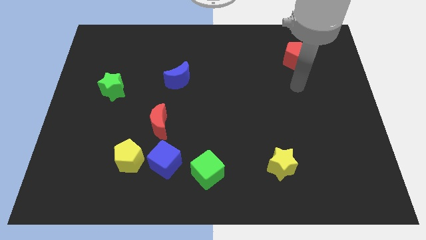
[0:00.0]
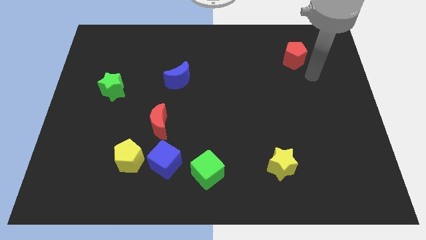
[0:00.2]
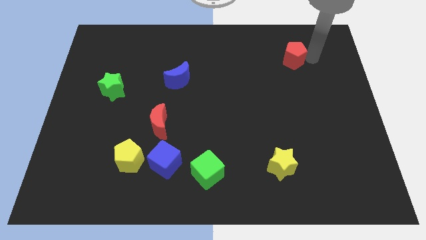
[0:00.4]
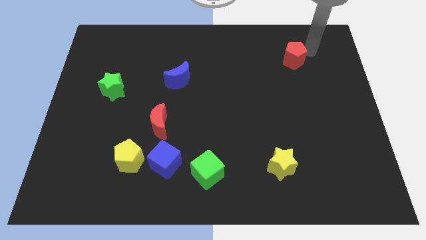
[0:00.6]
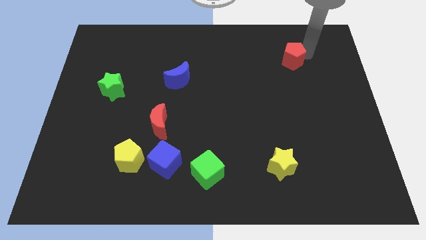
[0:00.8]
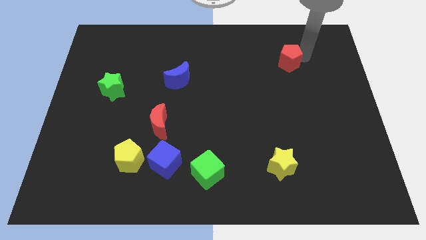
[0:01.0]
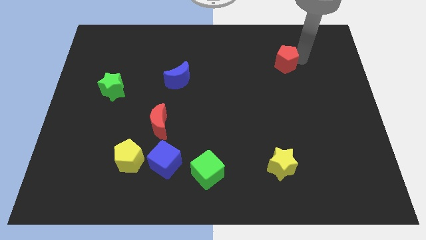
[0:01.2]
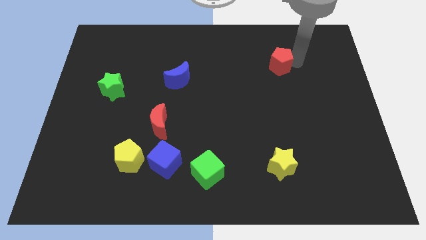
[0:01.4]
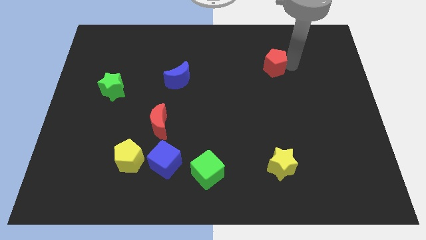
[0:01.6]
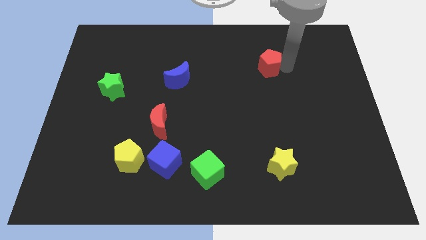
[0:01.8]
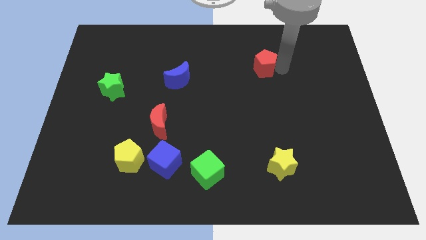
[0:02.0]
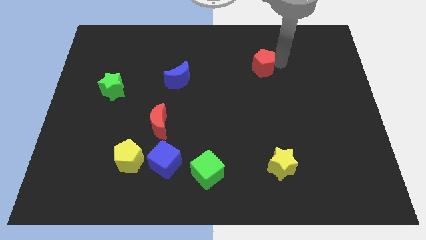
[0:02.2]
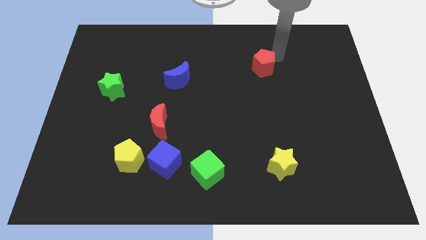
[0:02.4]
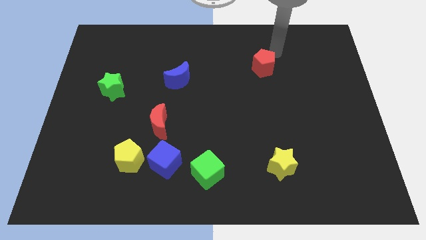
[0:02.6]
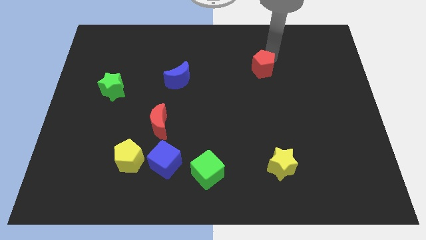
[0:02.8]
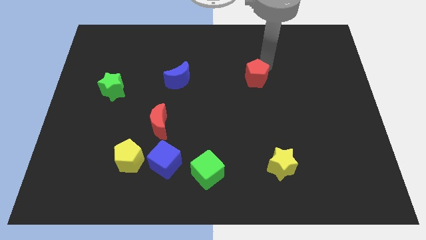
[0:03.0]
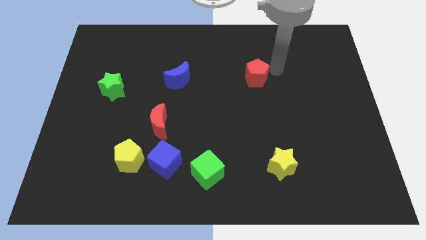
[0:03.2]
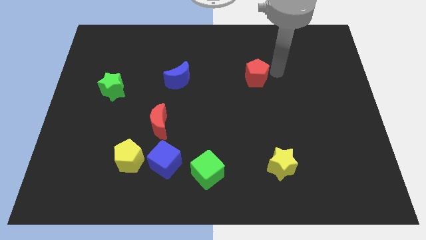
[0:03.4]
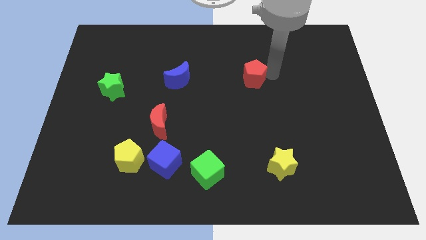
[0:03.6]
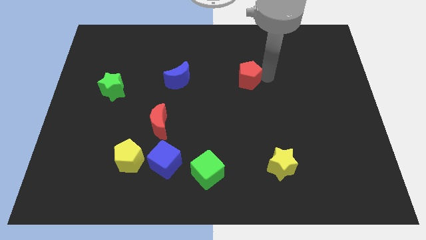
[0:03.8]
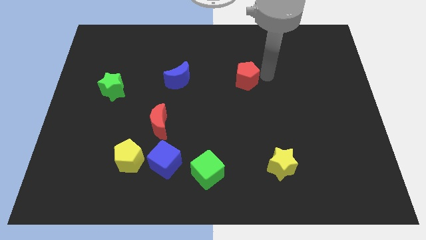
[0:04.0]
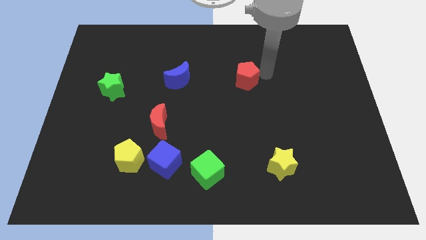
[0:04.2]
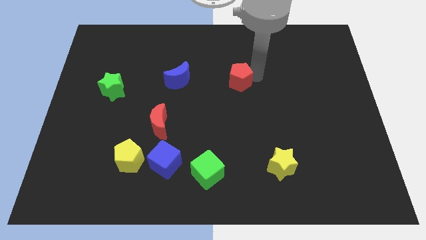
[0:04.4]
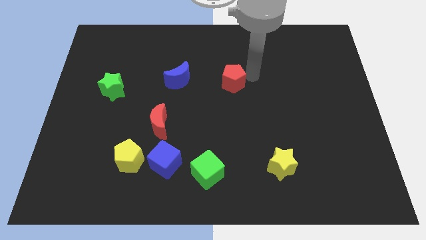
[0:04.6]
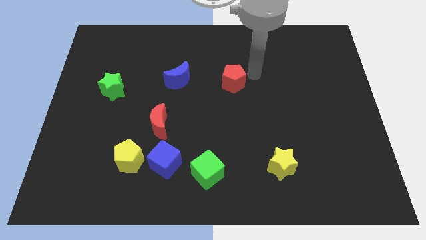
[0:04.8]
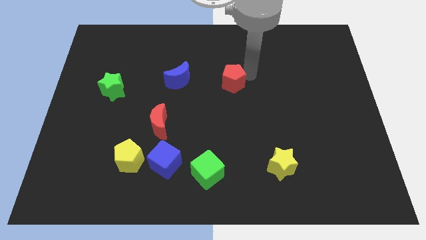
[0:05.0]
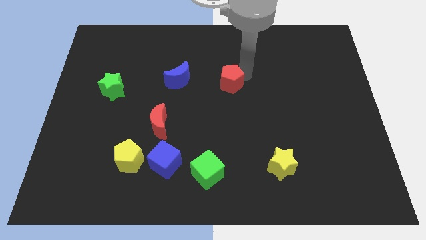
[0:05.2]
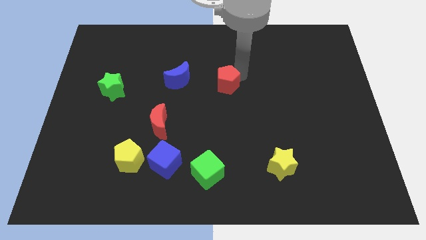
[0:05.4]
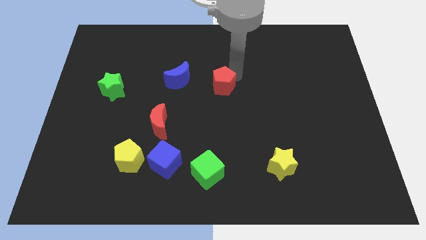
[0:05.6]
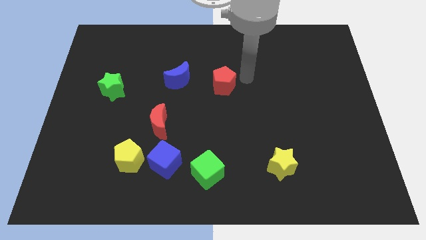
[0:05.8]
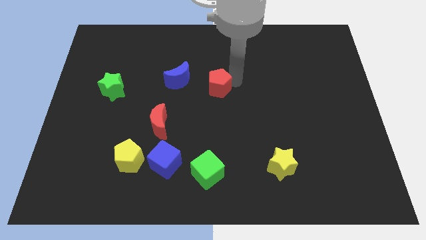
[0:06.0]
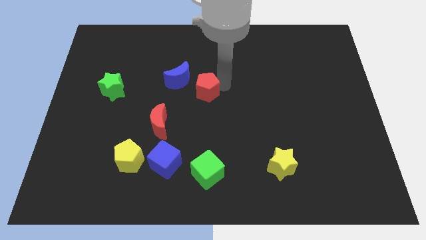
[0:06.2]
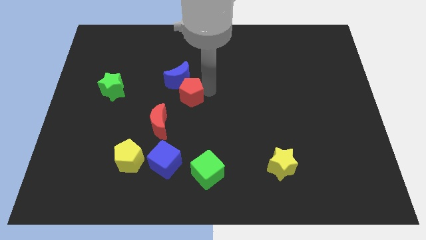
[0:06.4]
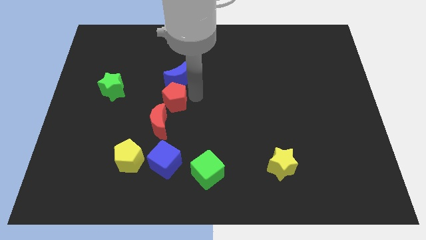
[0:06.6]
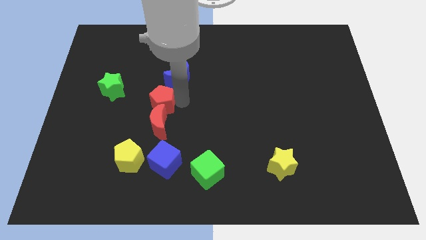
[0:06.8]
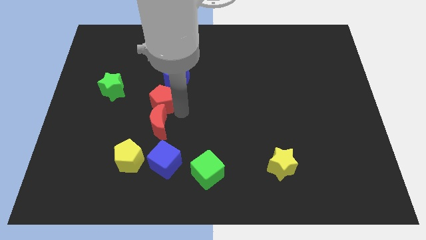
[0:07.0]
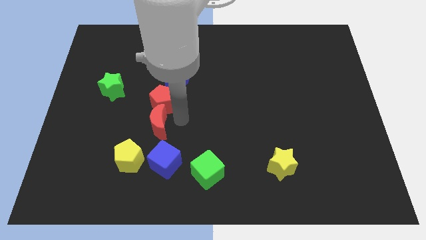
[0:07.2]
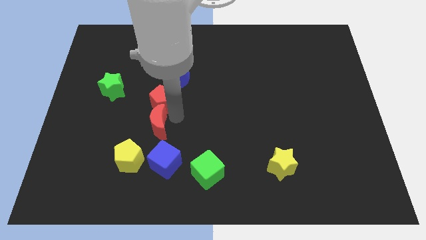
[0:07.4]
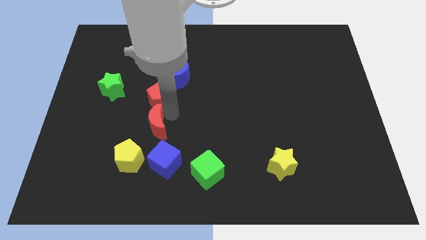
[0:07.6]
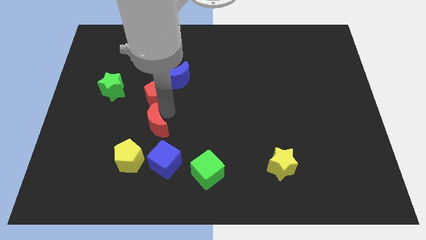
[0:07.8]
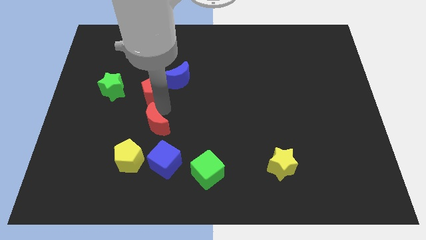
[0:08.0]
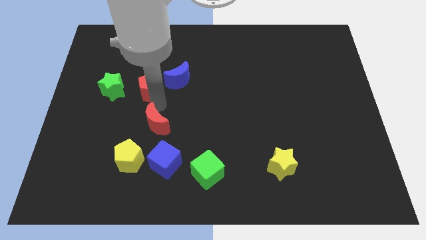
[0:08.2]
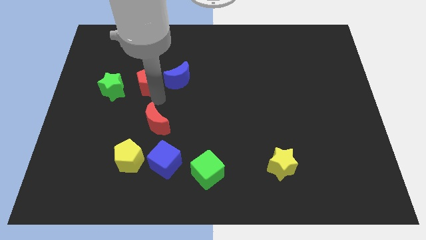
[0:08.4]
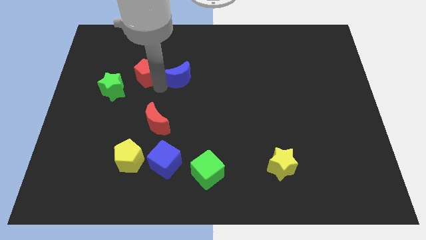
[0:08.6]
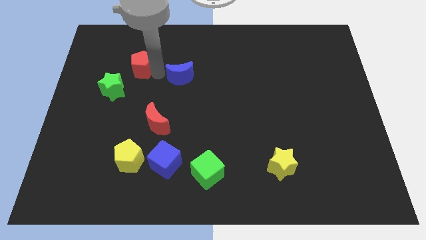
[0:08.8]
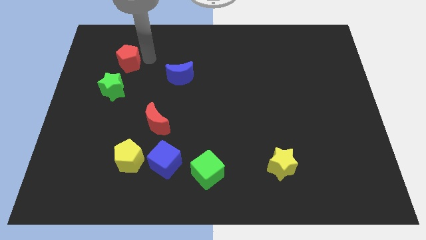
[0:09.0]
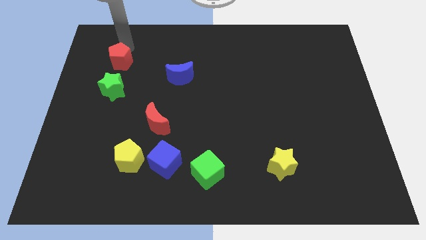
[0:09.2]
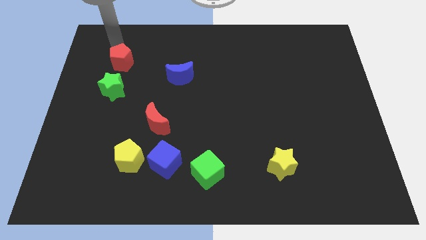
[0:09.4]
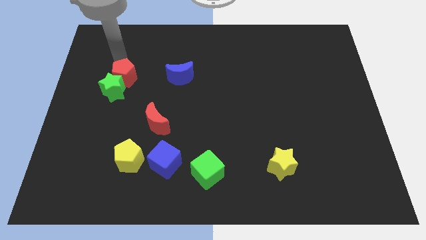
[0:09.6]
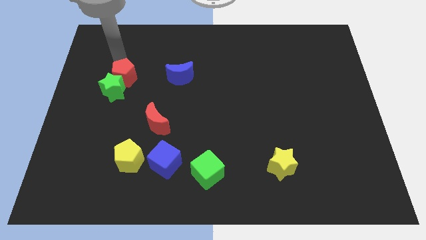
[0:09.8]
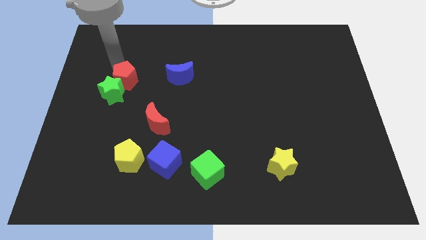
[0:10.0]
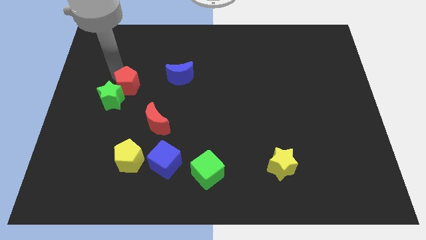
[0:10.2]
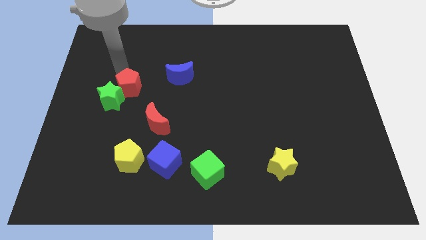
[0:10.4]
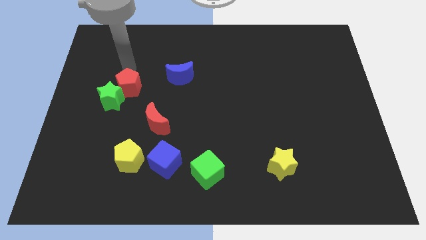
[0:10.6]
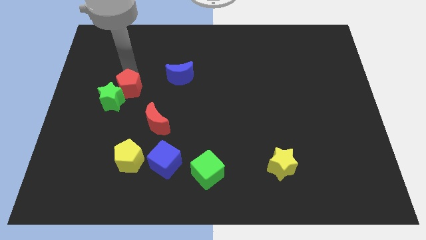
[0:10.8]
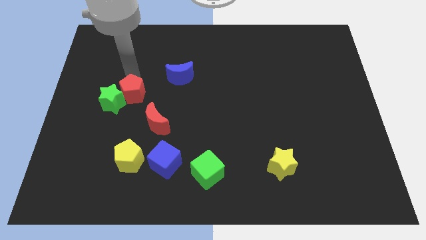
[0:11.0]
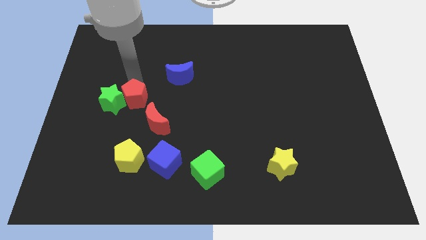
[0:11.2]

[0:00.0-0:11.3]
put the red pentagon diagonally down and to the right of the green star

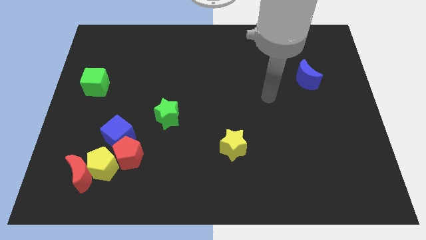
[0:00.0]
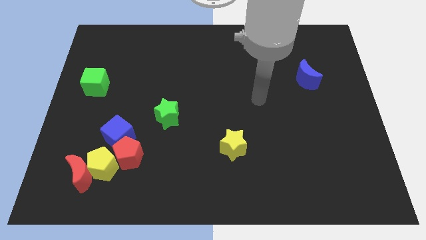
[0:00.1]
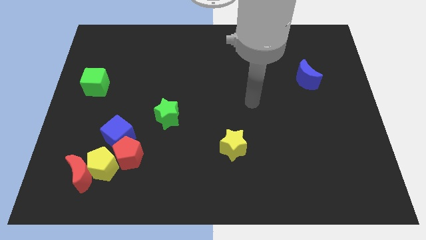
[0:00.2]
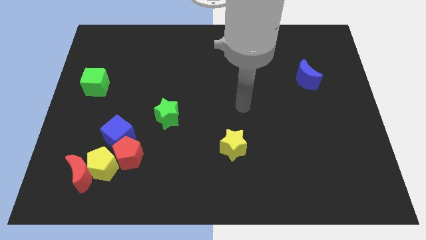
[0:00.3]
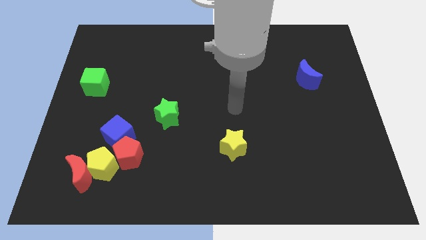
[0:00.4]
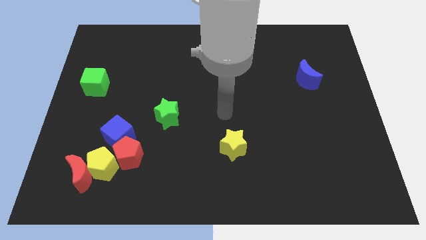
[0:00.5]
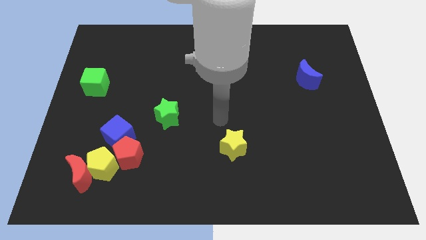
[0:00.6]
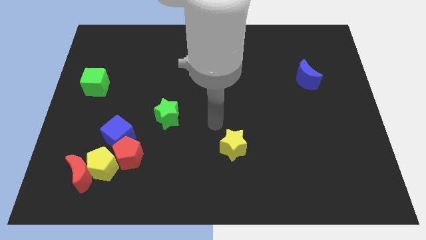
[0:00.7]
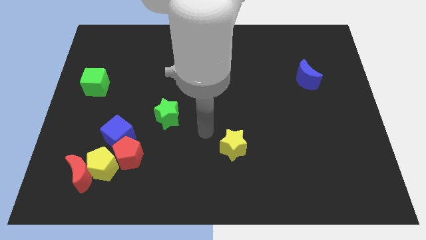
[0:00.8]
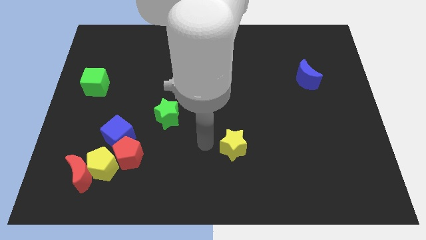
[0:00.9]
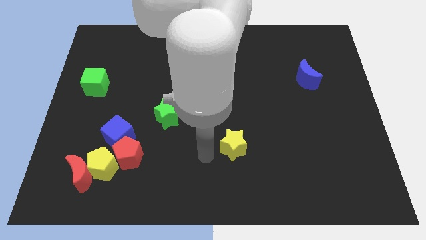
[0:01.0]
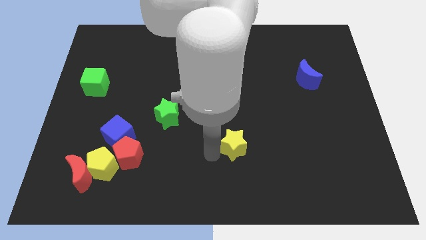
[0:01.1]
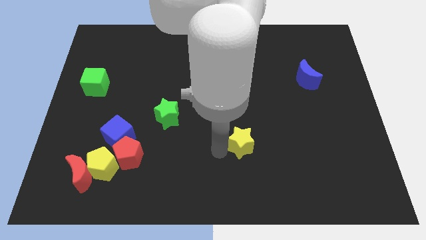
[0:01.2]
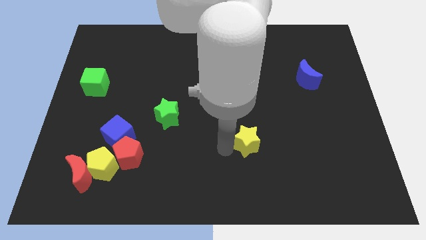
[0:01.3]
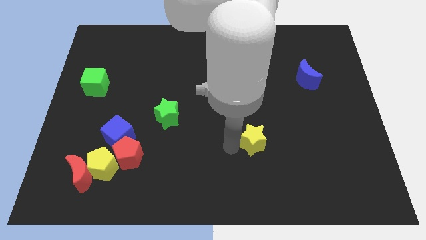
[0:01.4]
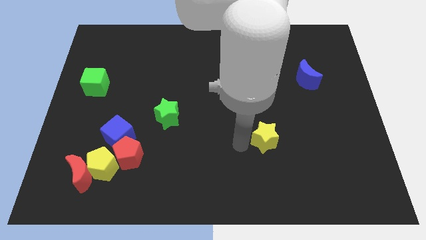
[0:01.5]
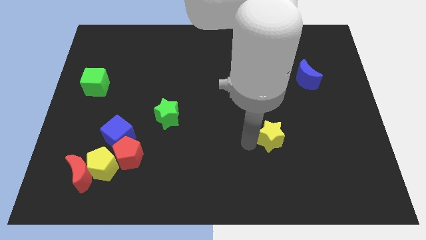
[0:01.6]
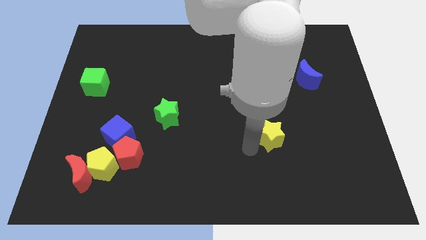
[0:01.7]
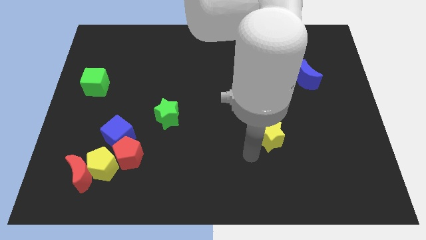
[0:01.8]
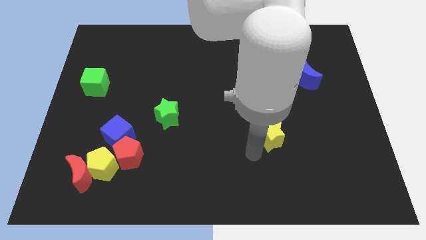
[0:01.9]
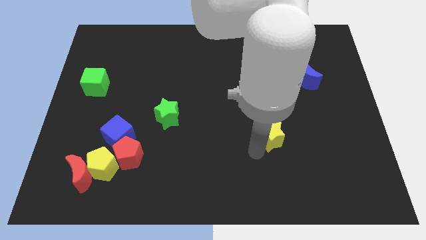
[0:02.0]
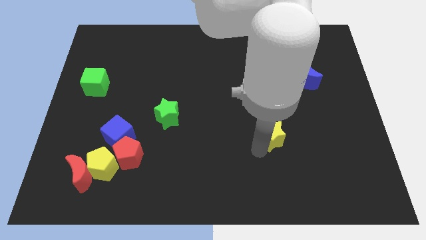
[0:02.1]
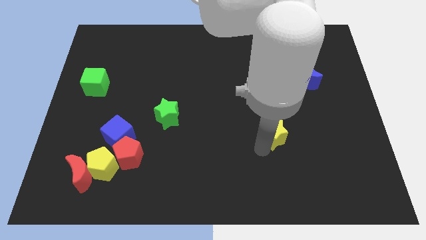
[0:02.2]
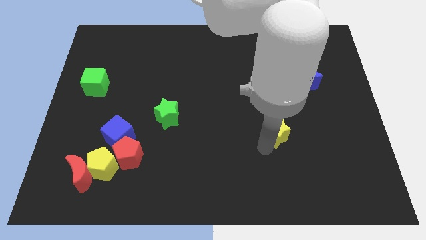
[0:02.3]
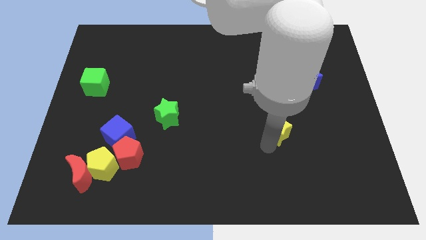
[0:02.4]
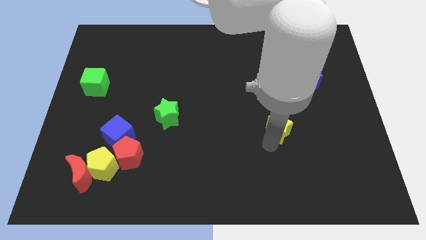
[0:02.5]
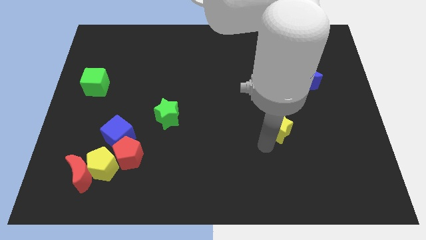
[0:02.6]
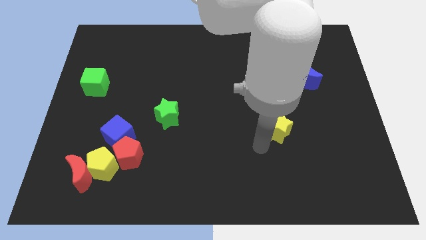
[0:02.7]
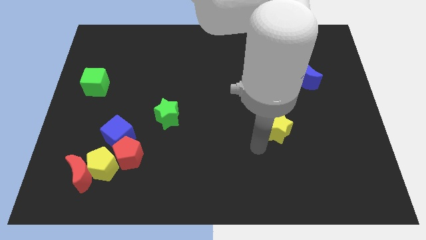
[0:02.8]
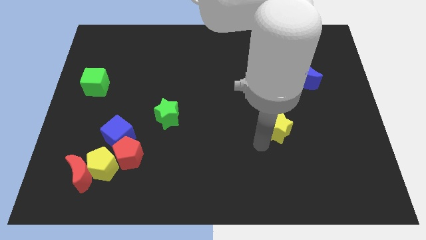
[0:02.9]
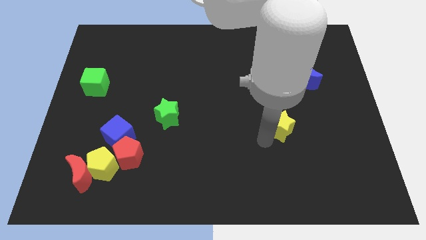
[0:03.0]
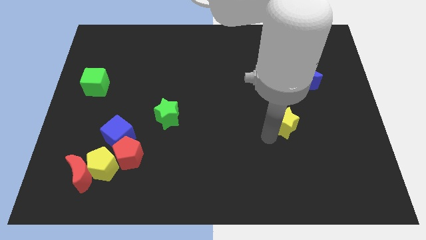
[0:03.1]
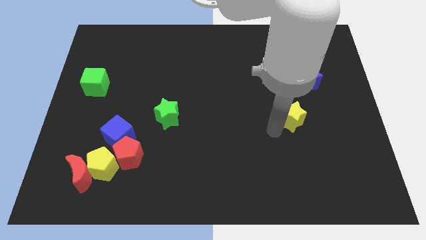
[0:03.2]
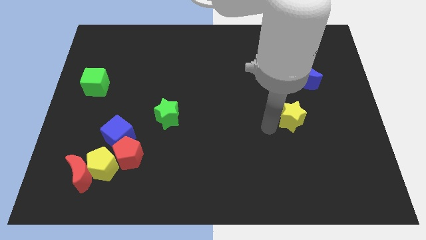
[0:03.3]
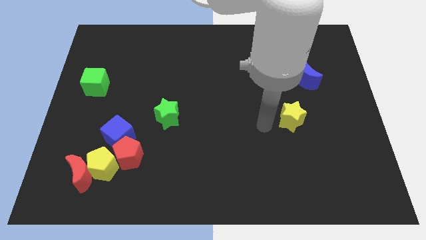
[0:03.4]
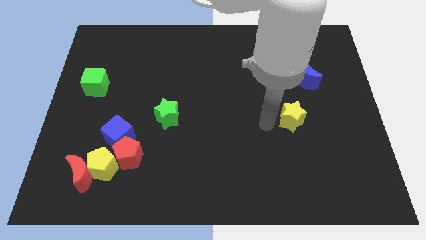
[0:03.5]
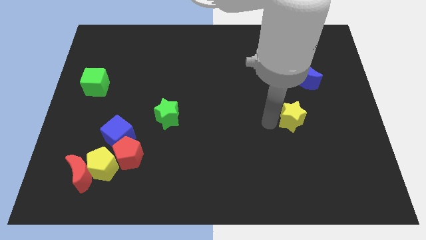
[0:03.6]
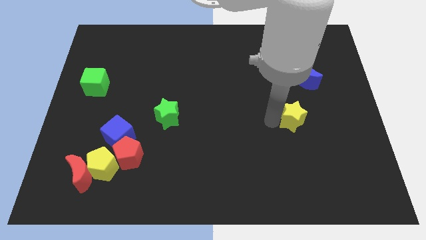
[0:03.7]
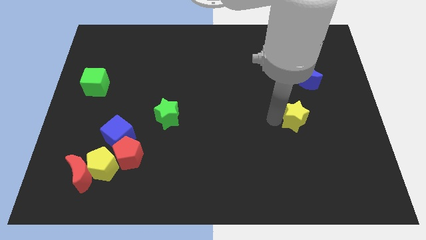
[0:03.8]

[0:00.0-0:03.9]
slide the yellow star below the blue moon
